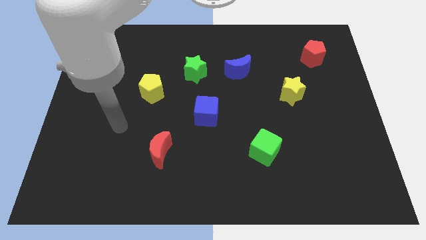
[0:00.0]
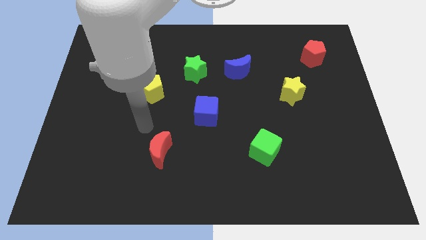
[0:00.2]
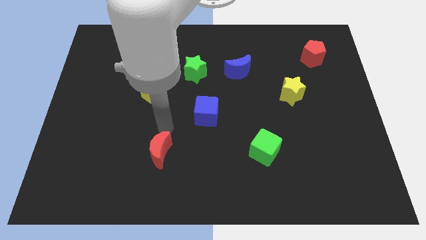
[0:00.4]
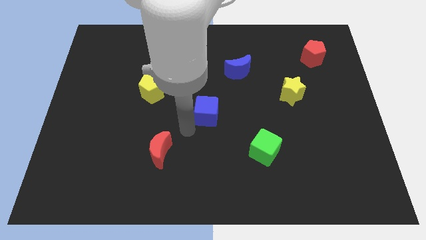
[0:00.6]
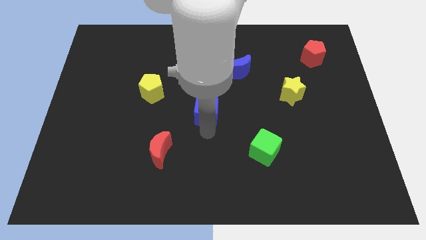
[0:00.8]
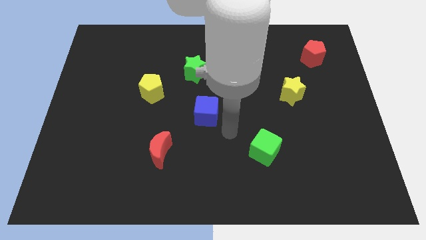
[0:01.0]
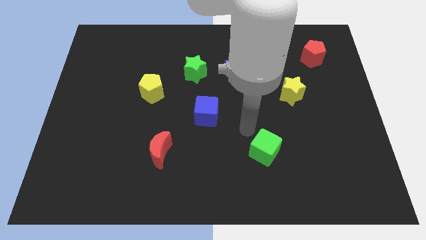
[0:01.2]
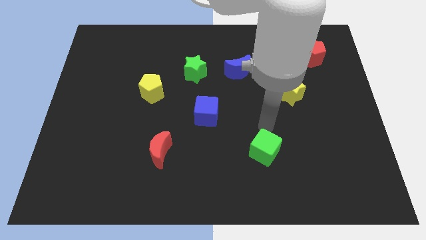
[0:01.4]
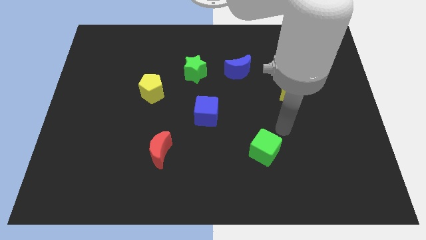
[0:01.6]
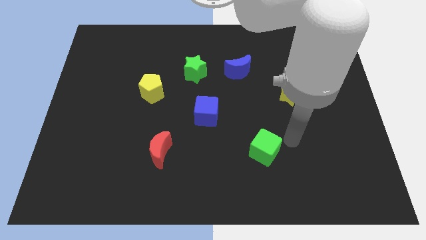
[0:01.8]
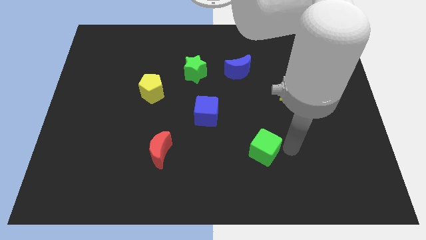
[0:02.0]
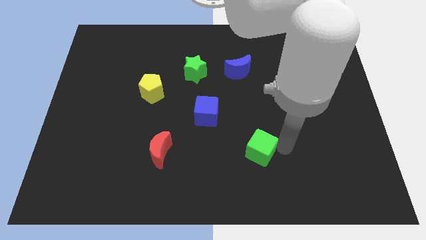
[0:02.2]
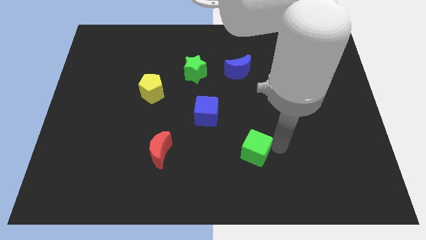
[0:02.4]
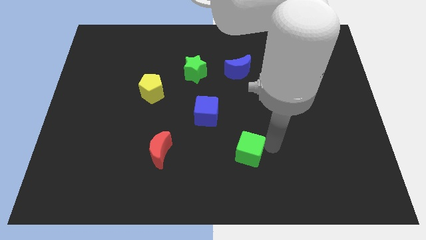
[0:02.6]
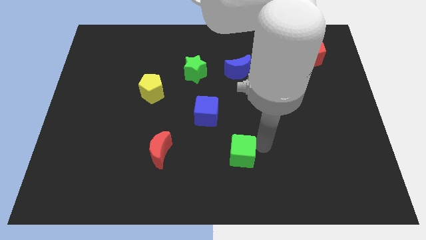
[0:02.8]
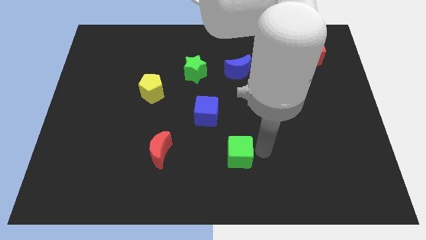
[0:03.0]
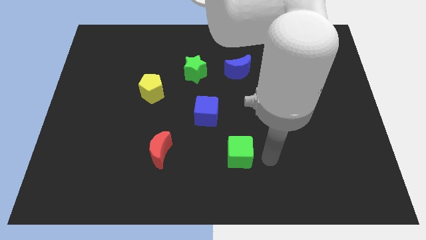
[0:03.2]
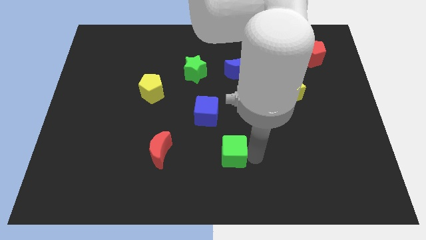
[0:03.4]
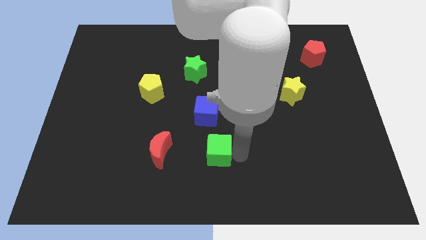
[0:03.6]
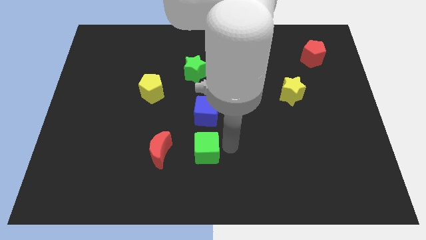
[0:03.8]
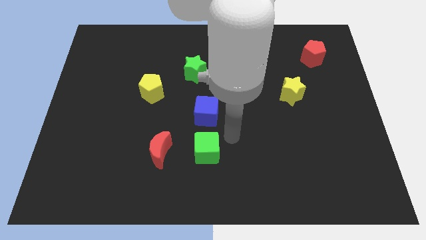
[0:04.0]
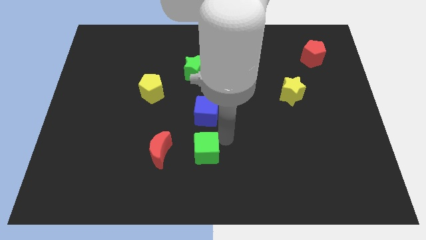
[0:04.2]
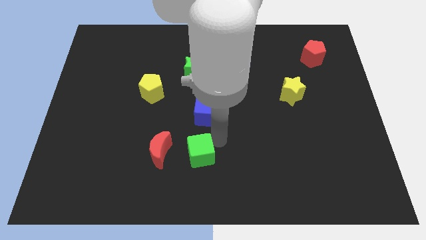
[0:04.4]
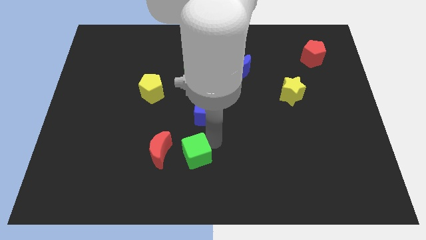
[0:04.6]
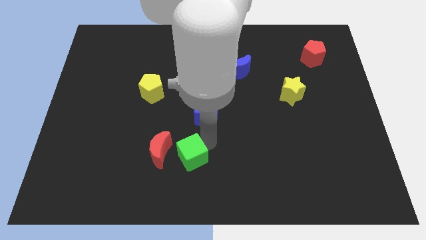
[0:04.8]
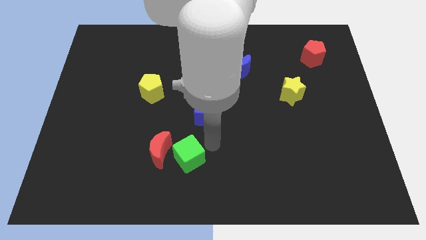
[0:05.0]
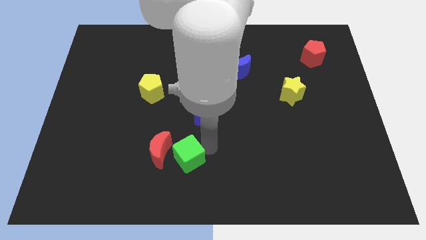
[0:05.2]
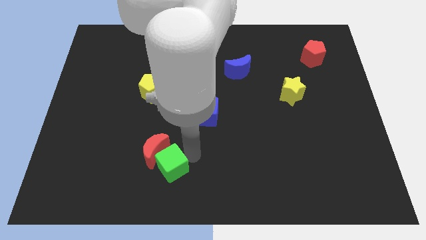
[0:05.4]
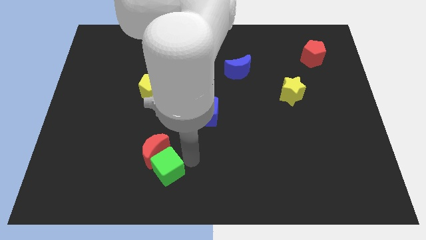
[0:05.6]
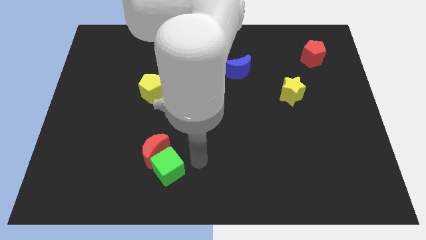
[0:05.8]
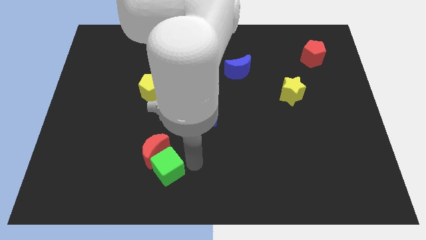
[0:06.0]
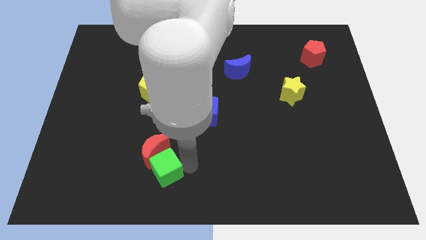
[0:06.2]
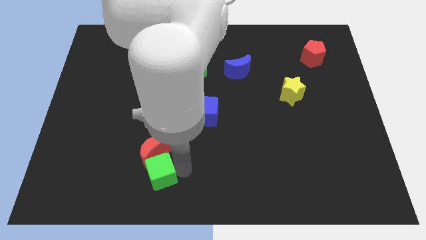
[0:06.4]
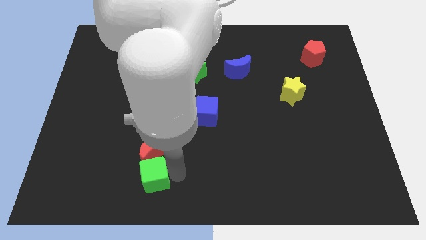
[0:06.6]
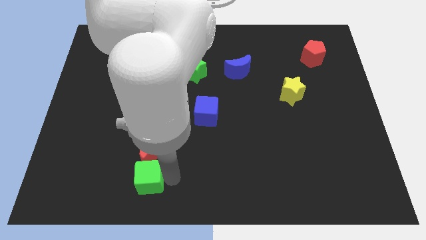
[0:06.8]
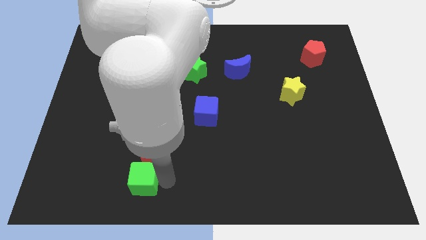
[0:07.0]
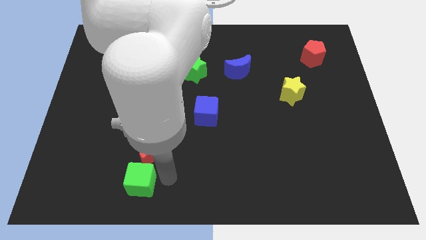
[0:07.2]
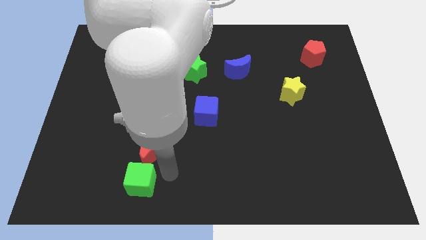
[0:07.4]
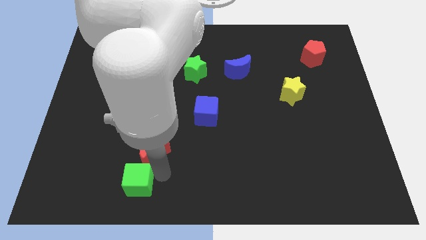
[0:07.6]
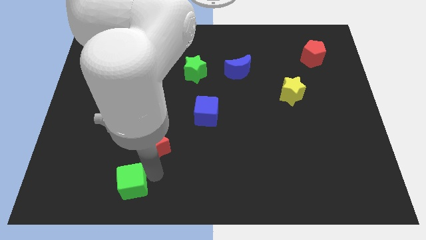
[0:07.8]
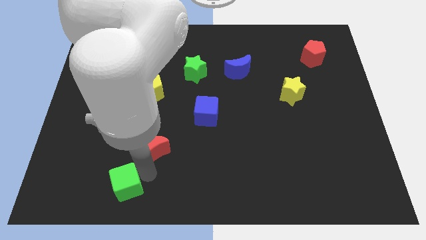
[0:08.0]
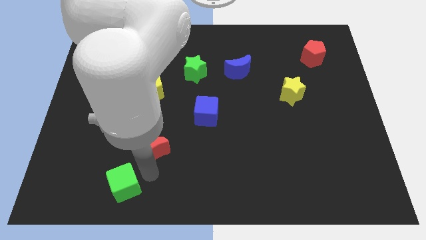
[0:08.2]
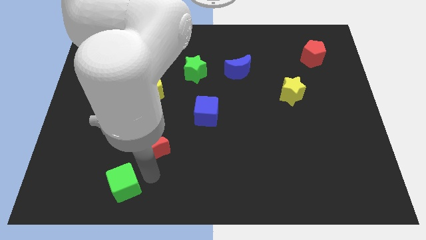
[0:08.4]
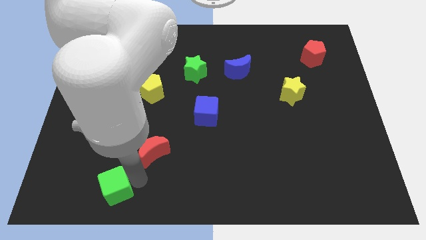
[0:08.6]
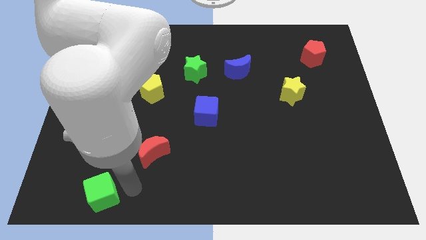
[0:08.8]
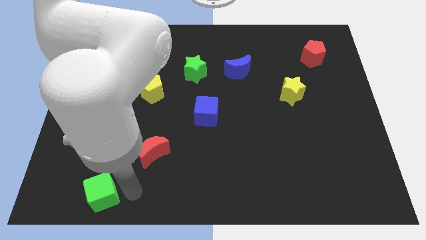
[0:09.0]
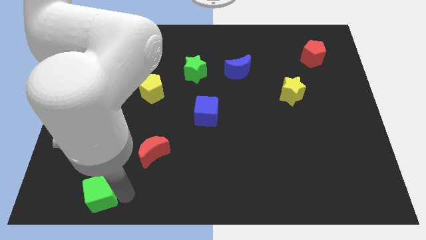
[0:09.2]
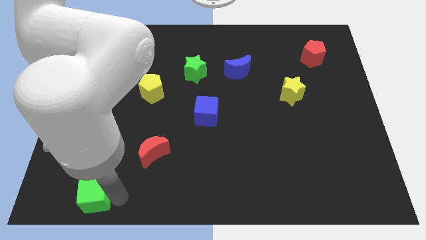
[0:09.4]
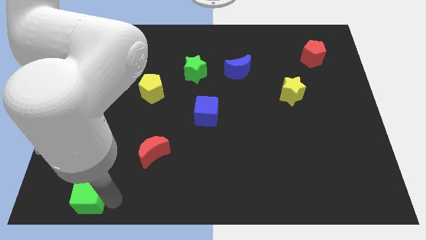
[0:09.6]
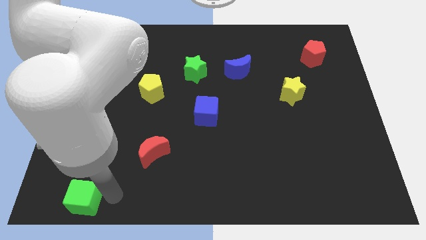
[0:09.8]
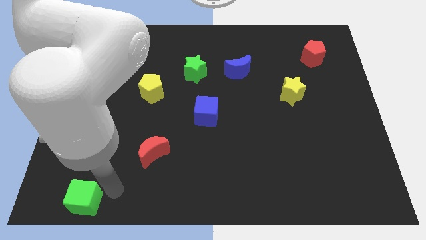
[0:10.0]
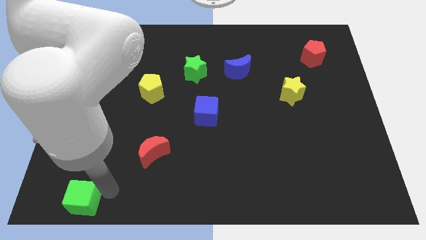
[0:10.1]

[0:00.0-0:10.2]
put the green cube to the bottom left of the board

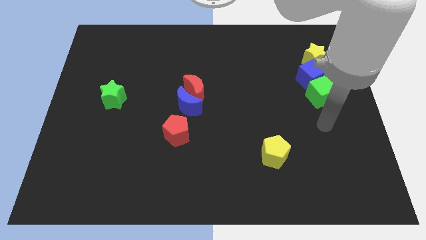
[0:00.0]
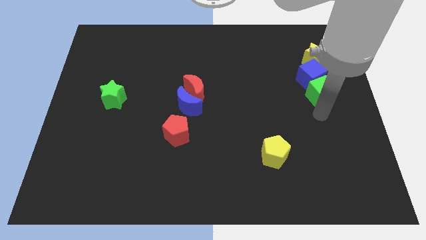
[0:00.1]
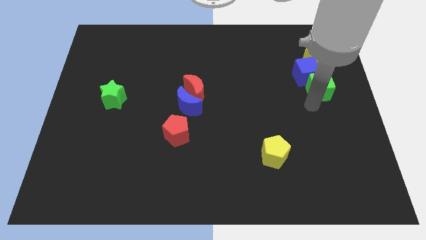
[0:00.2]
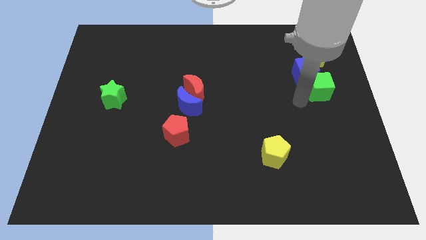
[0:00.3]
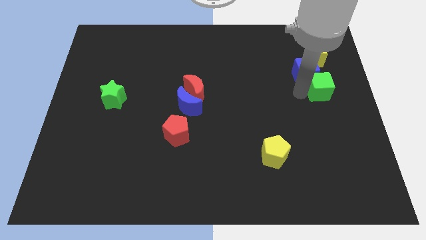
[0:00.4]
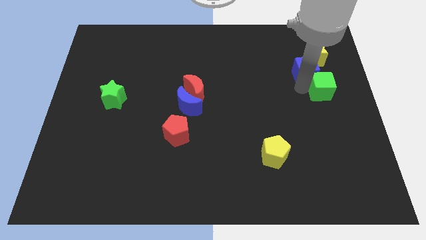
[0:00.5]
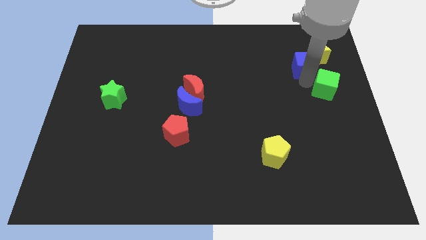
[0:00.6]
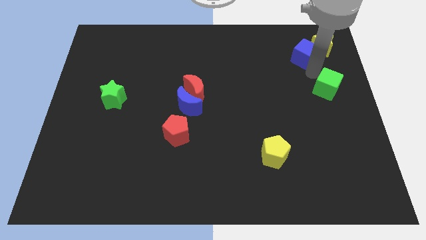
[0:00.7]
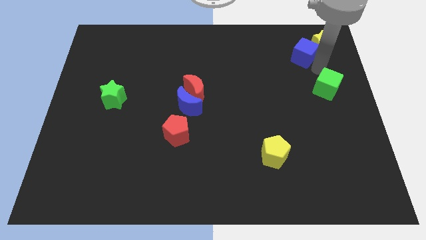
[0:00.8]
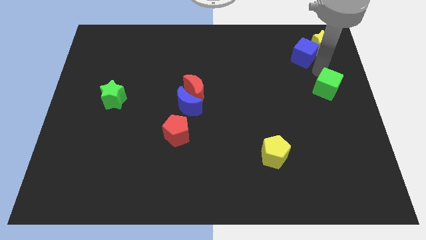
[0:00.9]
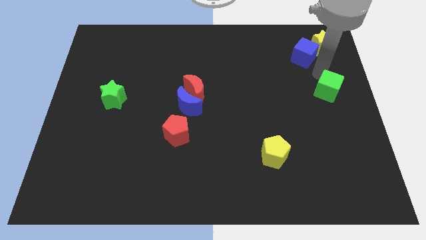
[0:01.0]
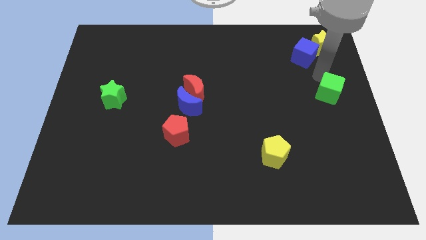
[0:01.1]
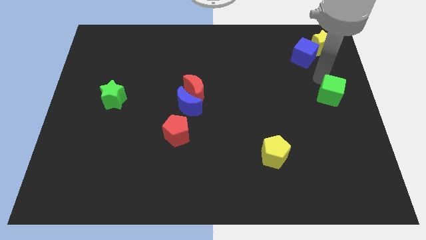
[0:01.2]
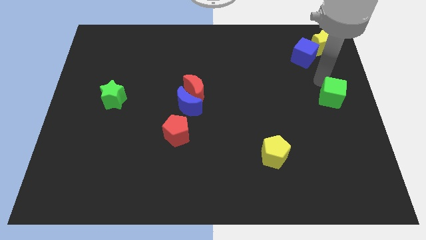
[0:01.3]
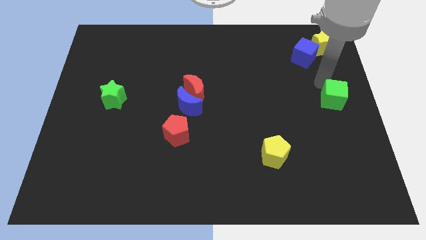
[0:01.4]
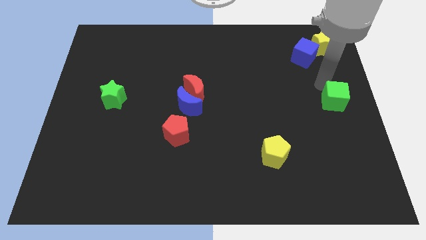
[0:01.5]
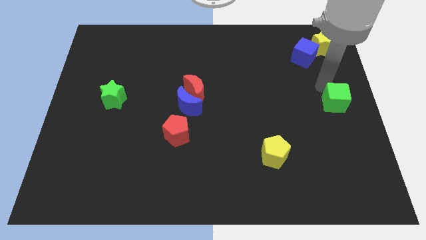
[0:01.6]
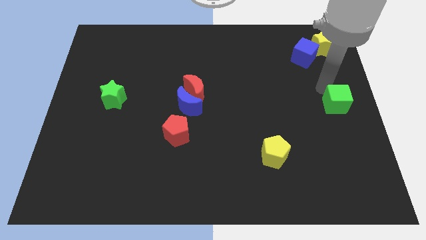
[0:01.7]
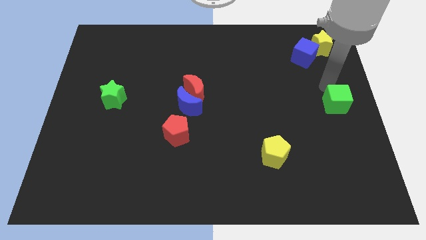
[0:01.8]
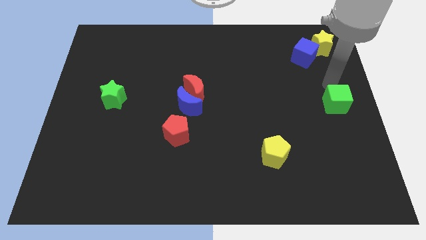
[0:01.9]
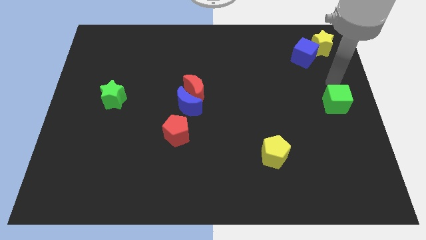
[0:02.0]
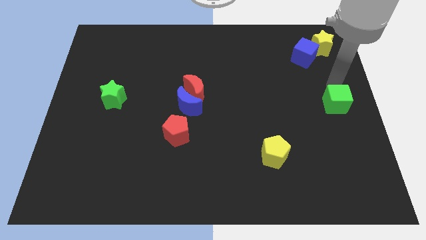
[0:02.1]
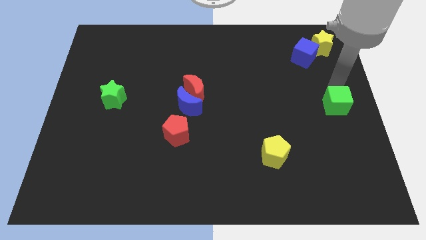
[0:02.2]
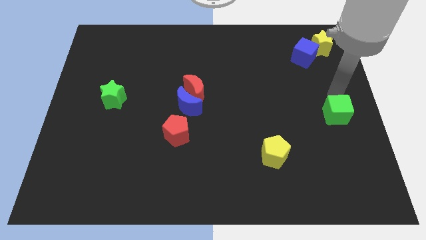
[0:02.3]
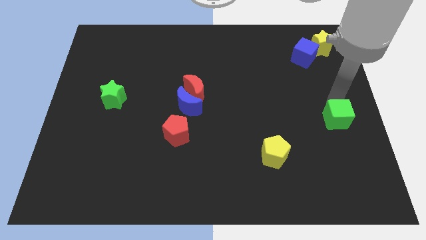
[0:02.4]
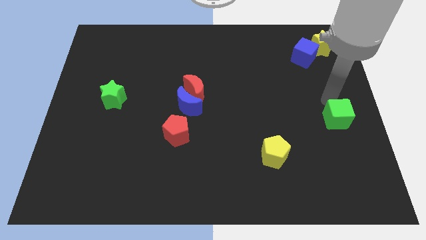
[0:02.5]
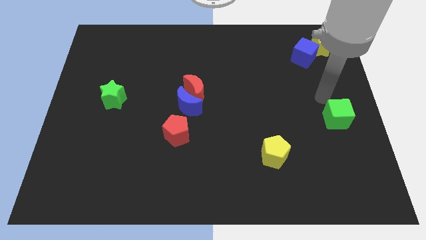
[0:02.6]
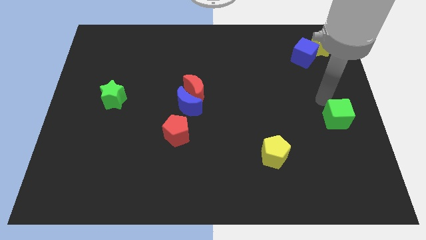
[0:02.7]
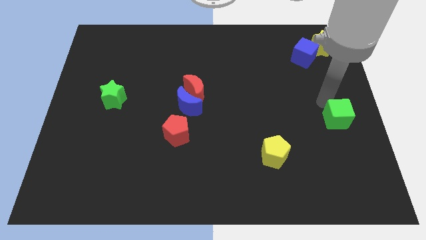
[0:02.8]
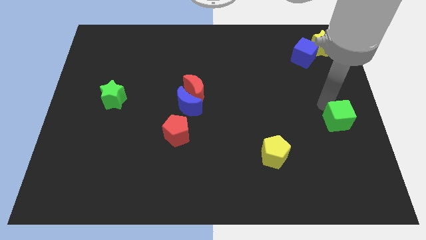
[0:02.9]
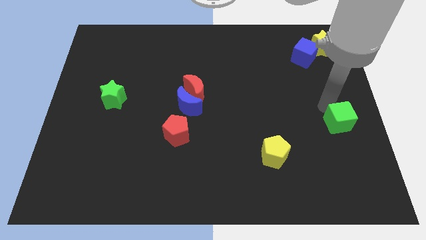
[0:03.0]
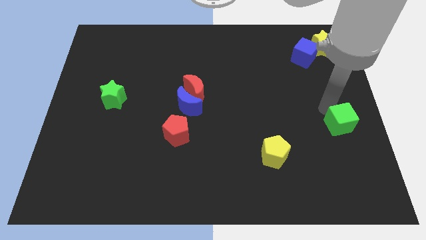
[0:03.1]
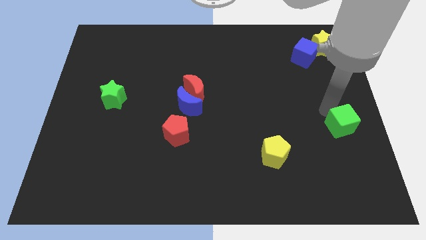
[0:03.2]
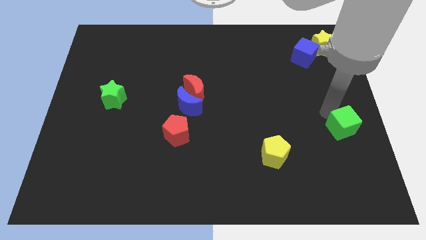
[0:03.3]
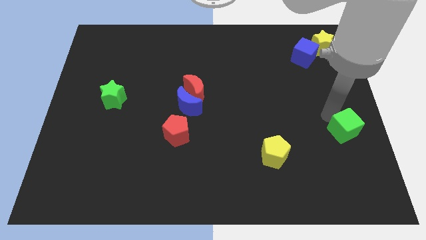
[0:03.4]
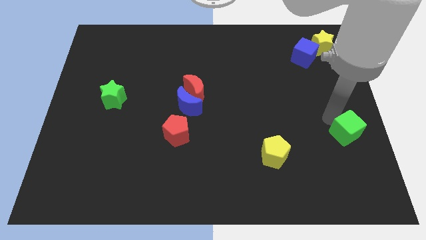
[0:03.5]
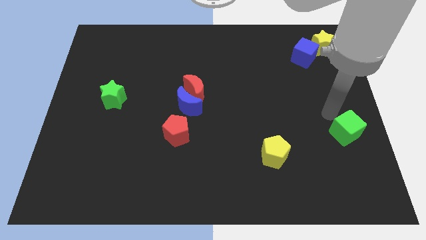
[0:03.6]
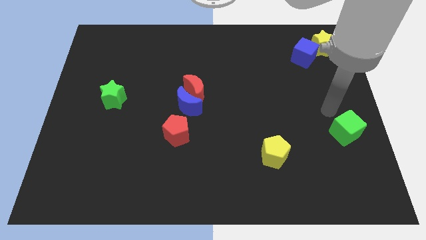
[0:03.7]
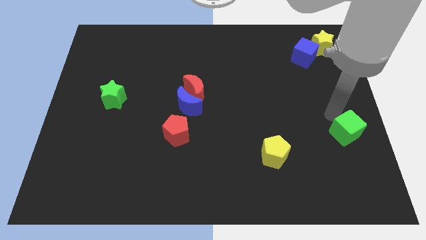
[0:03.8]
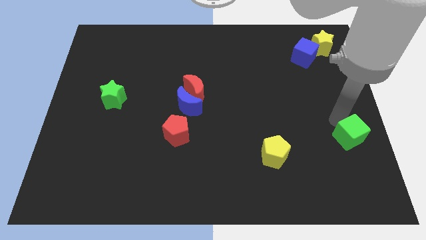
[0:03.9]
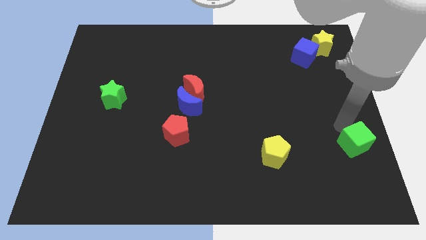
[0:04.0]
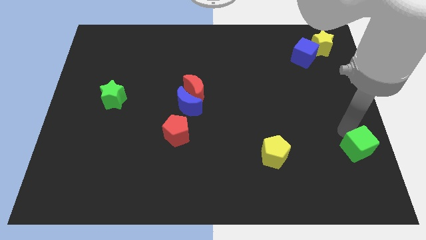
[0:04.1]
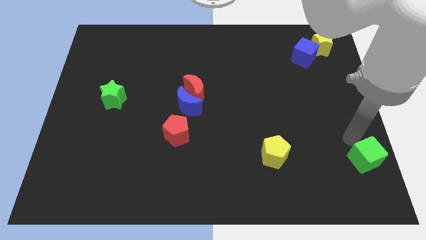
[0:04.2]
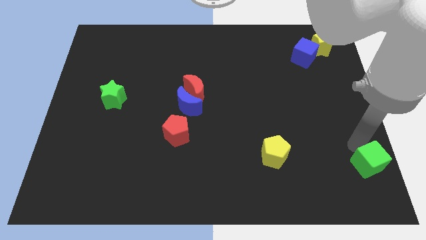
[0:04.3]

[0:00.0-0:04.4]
push the green cube to the bottom right
